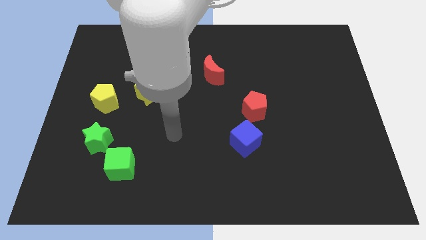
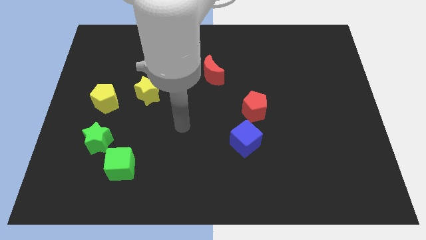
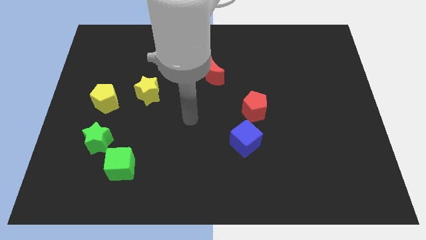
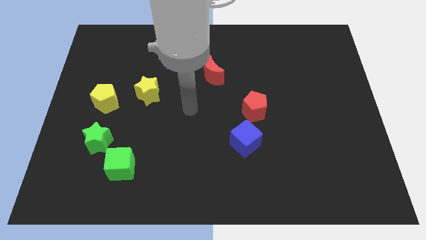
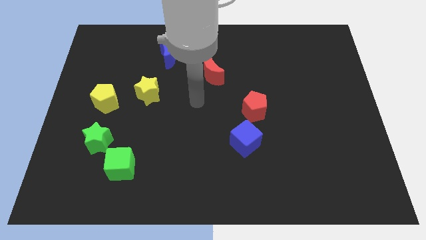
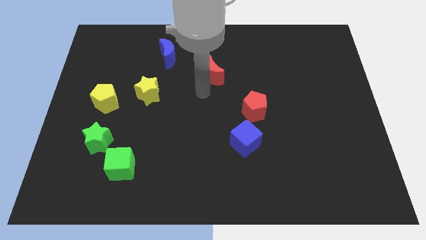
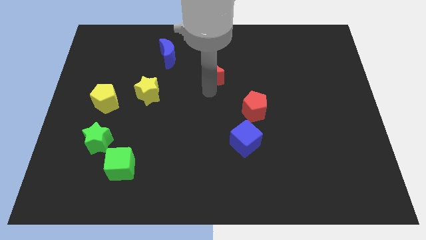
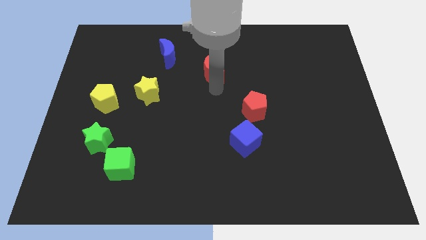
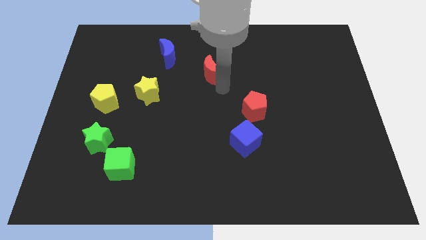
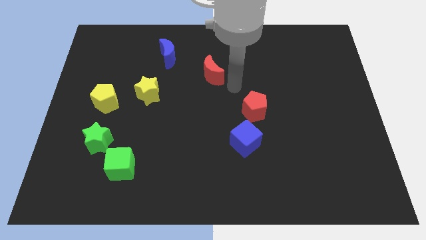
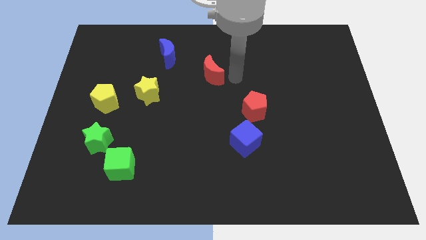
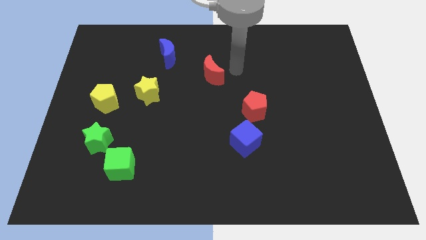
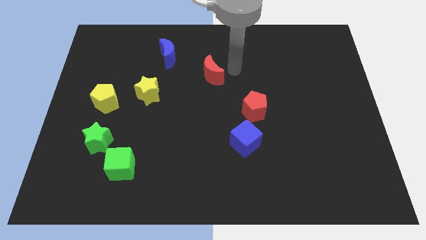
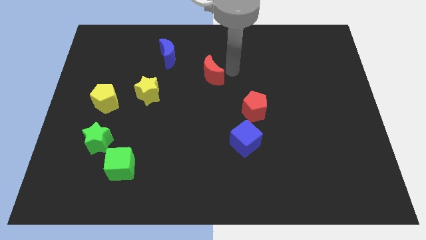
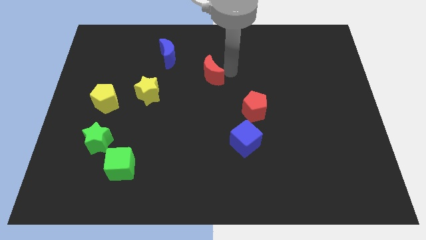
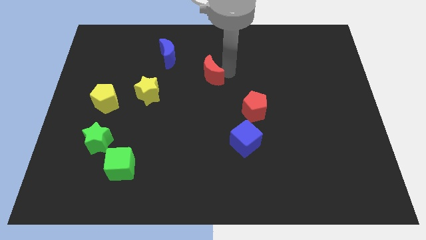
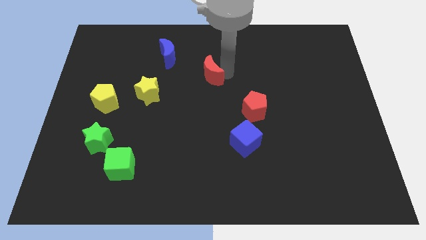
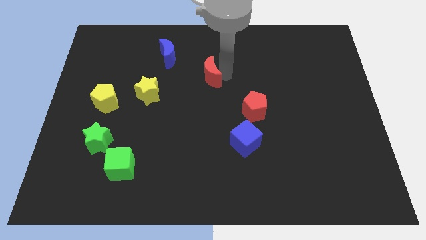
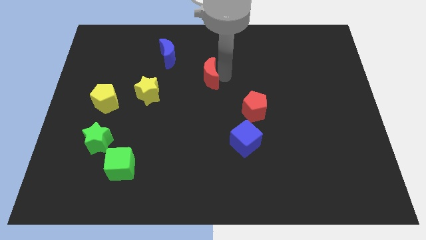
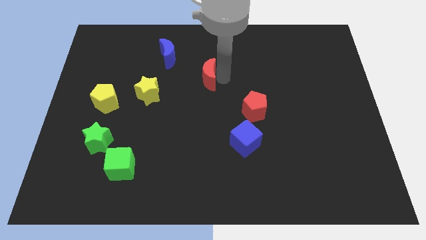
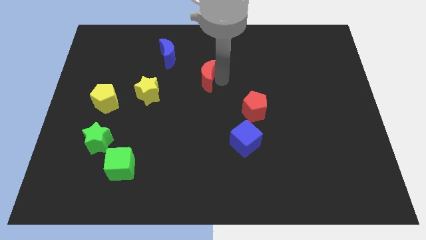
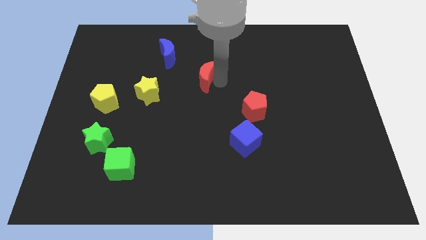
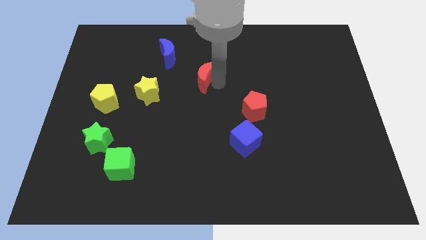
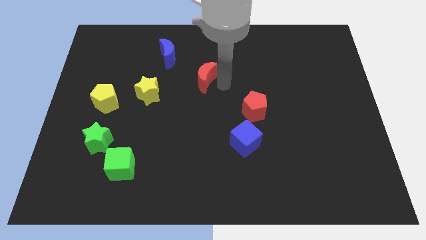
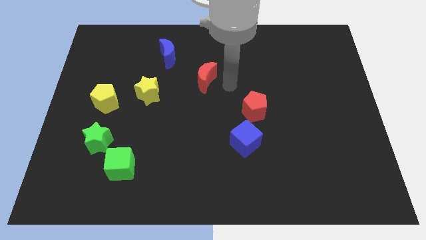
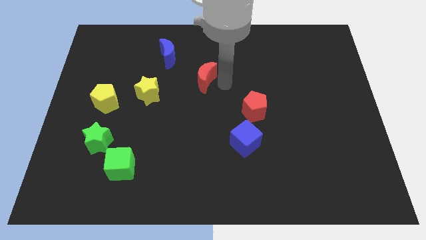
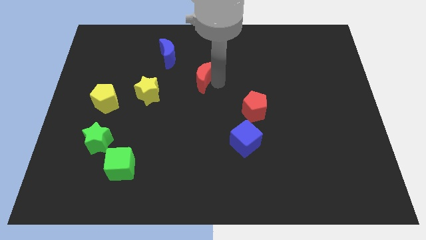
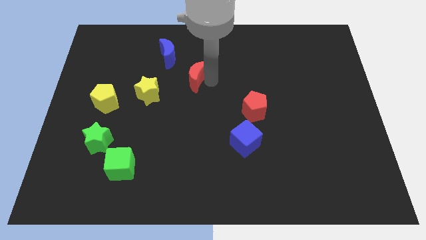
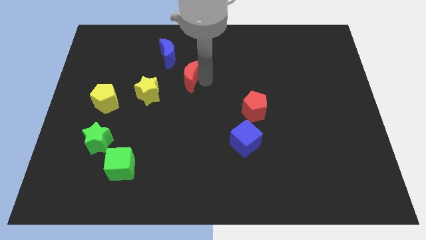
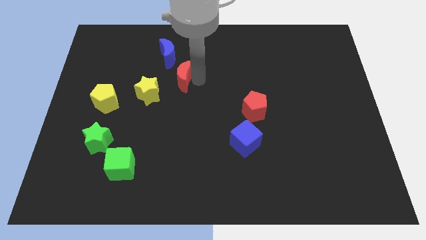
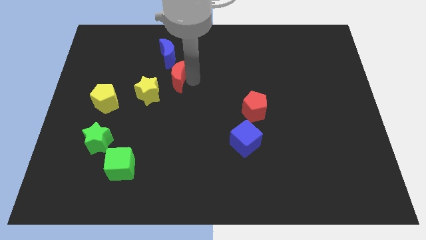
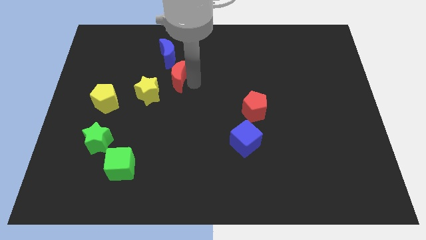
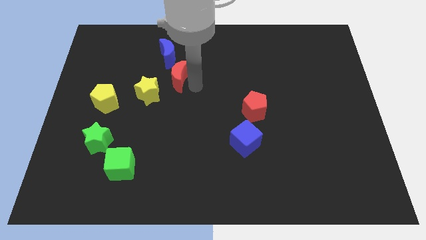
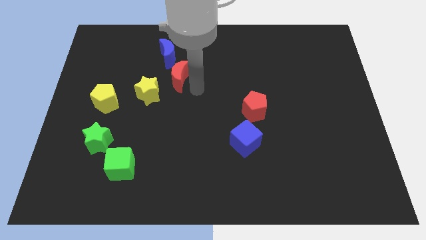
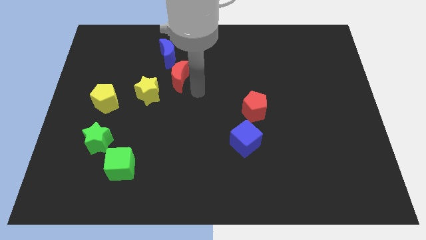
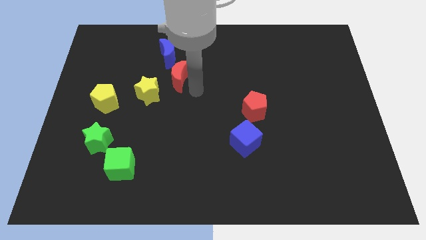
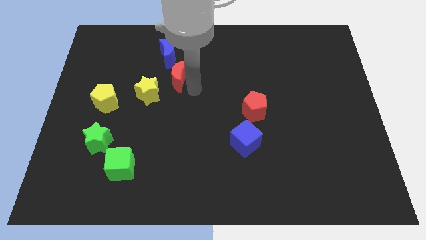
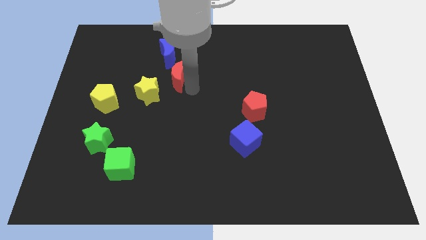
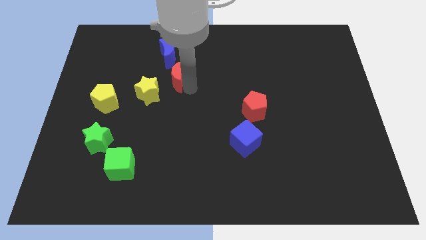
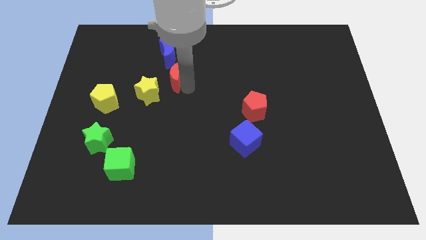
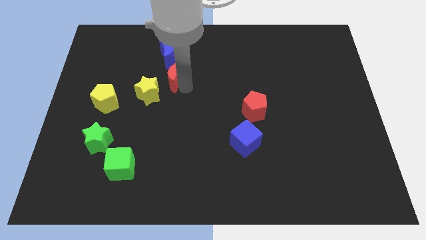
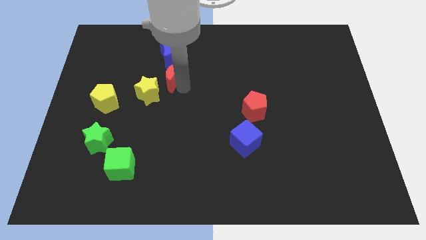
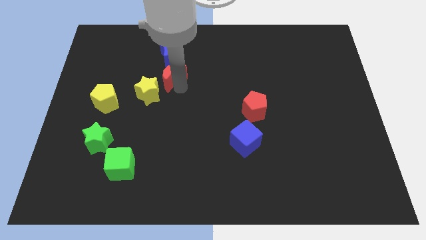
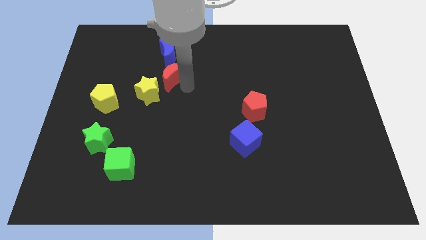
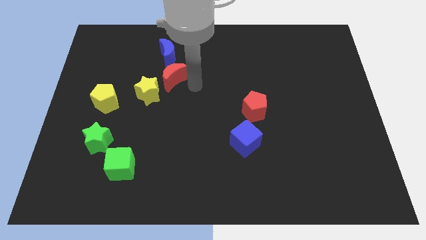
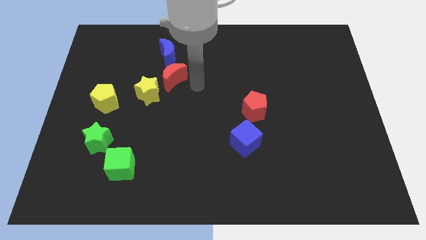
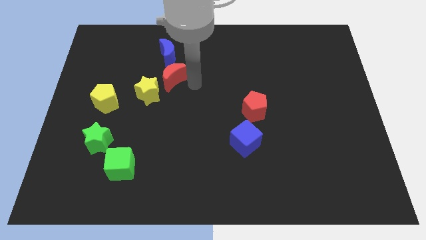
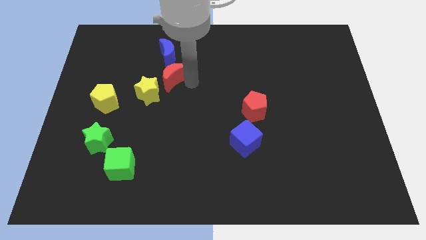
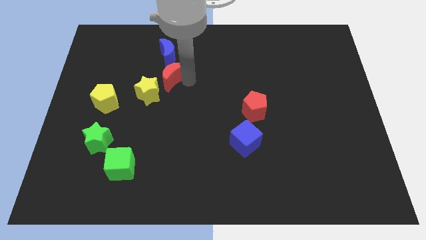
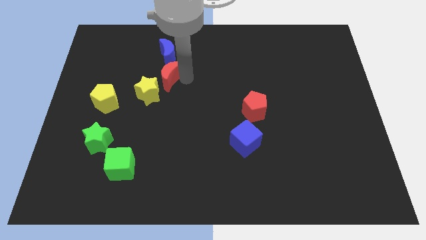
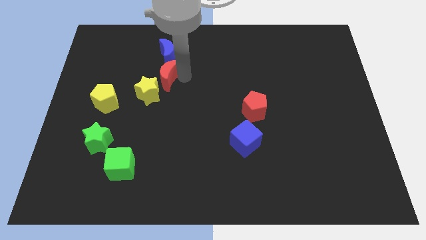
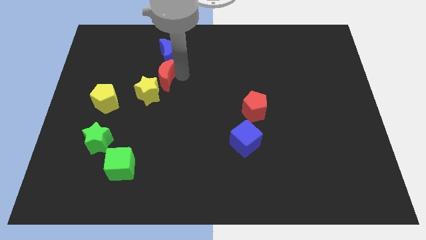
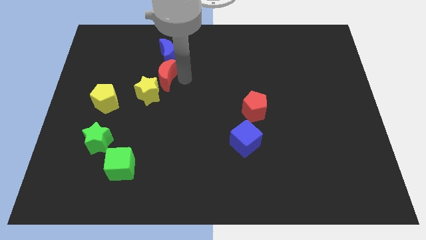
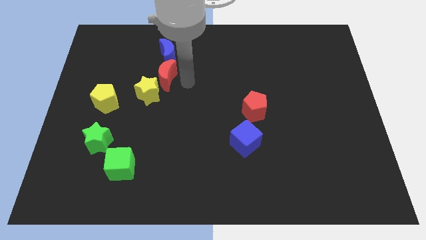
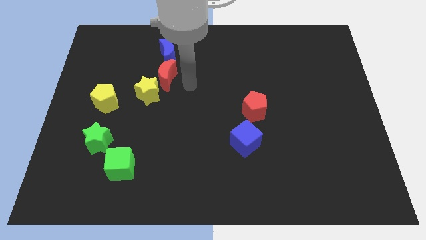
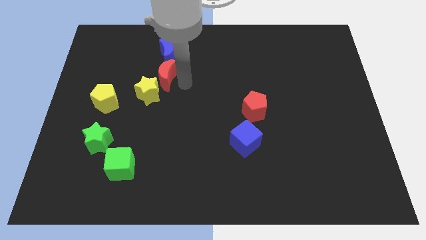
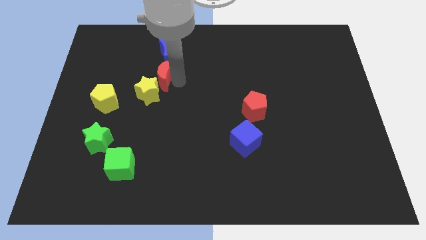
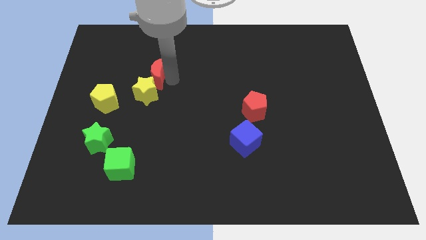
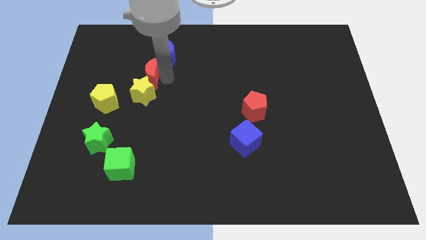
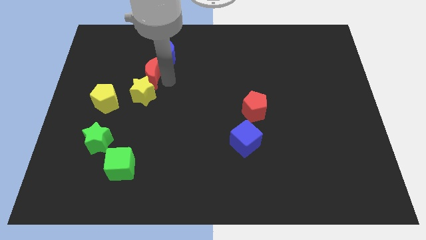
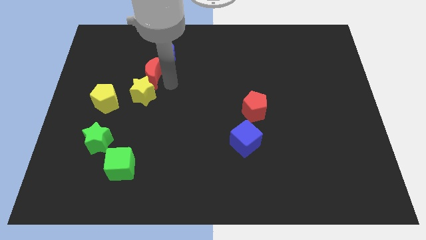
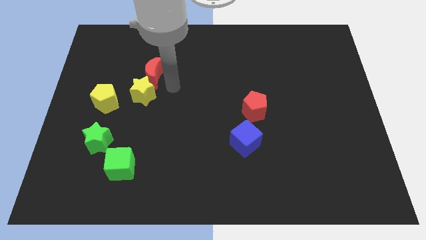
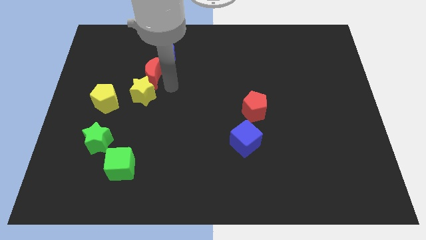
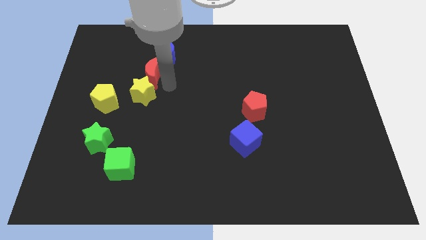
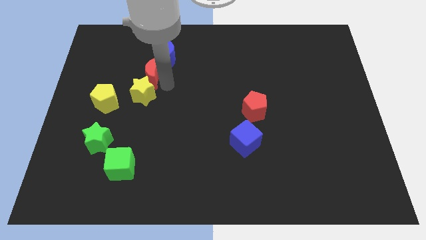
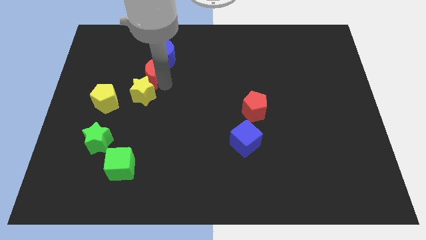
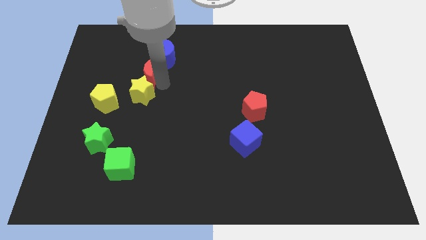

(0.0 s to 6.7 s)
put the red moon to the top right of the yellow pentagon

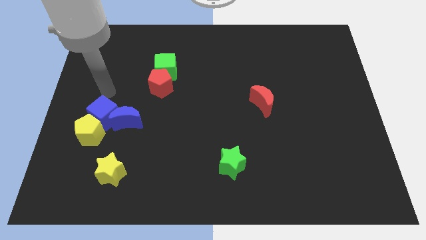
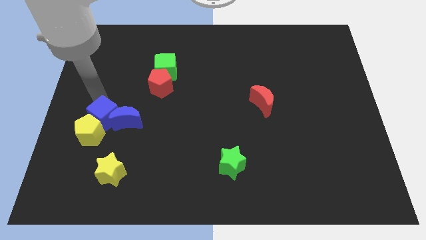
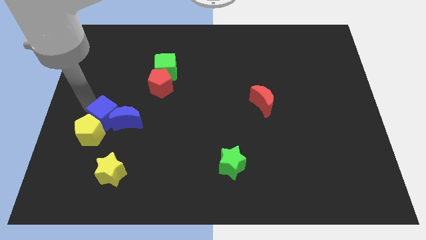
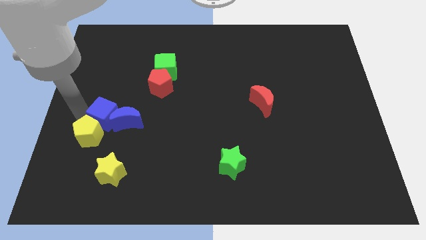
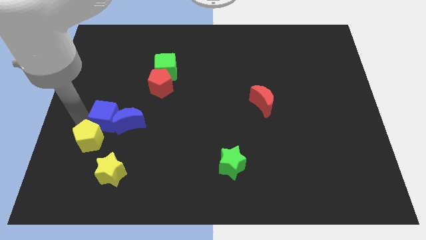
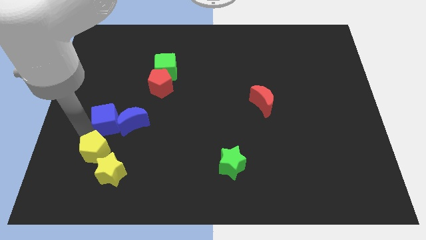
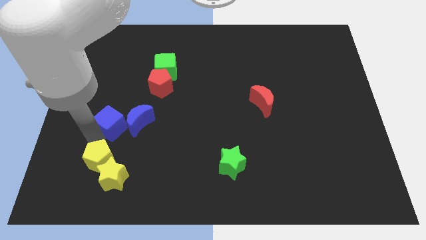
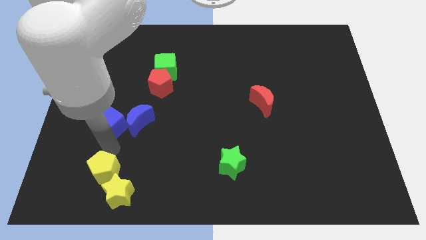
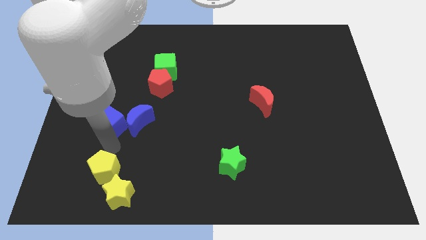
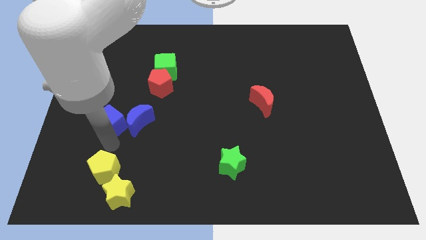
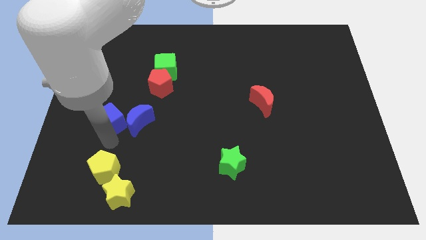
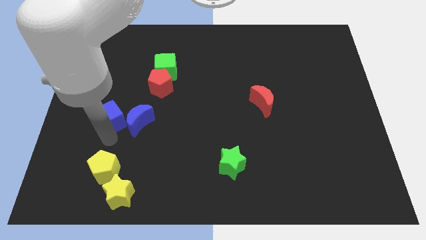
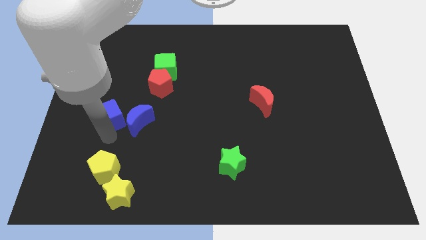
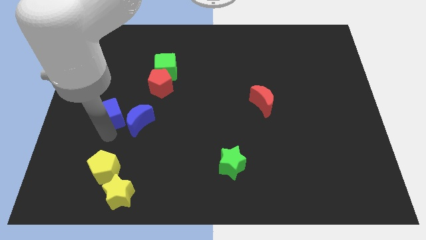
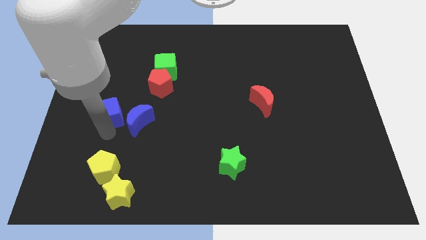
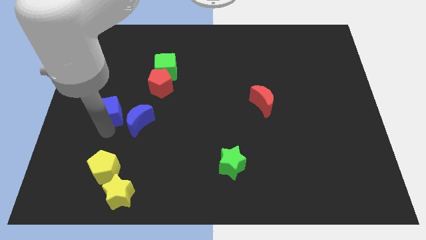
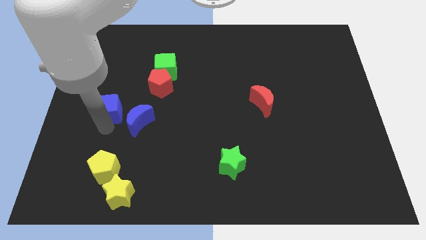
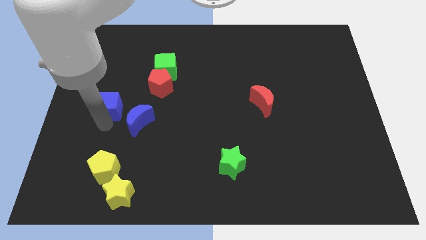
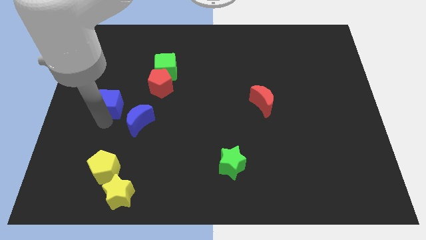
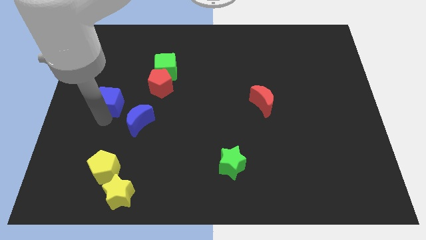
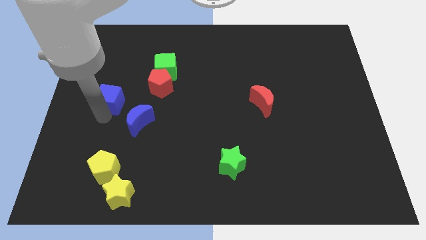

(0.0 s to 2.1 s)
push the blue cube to the left side of the red pentagon
